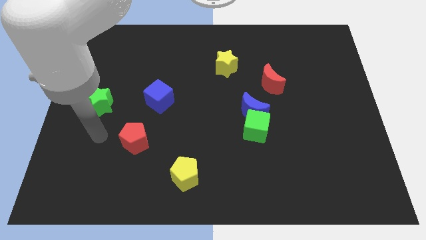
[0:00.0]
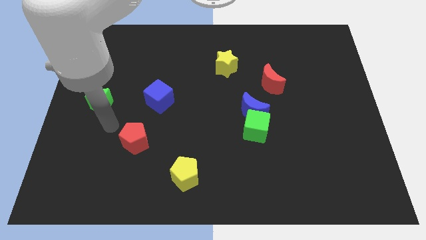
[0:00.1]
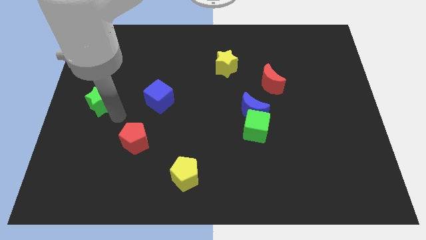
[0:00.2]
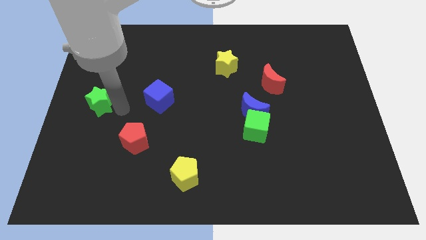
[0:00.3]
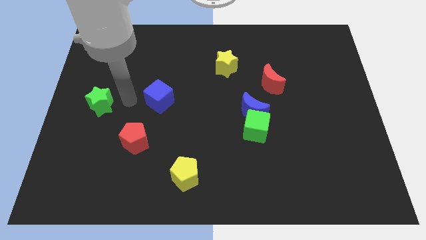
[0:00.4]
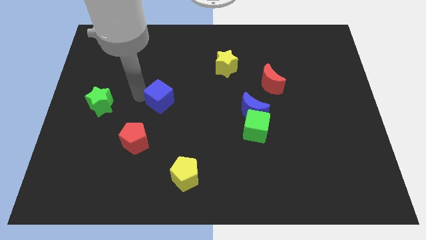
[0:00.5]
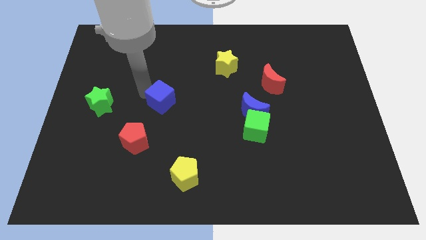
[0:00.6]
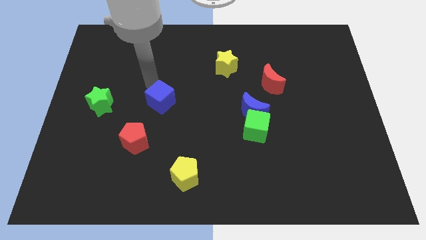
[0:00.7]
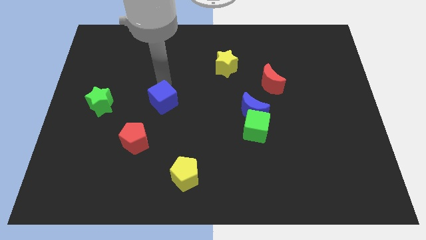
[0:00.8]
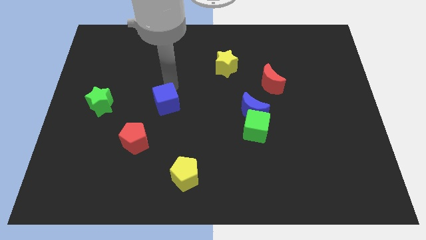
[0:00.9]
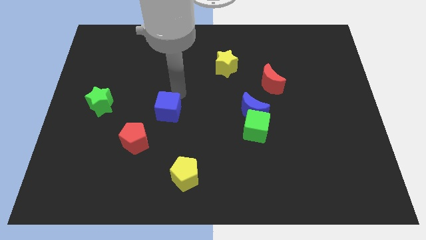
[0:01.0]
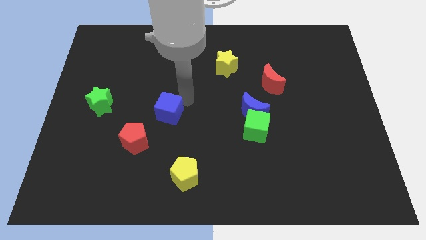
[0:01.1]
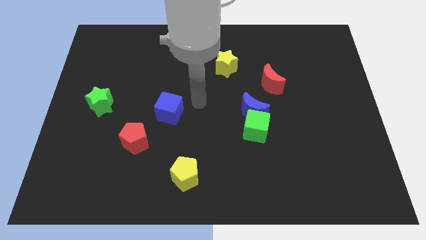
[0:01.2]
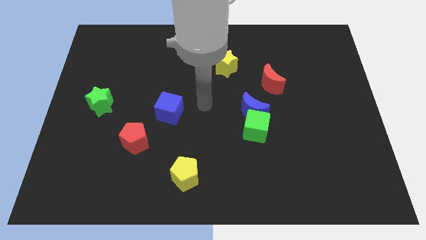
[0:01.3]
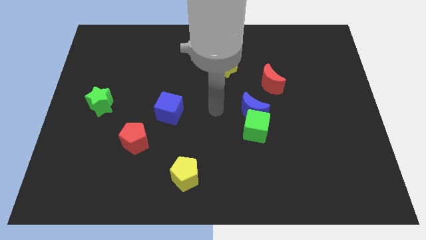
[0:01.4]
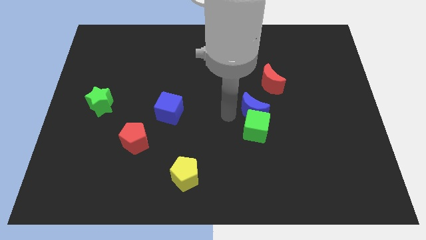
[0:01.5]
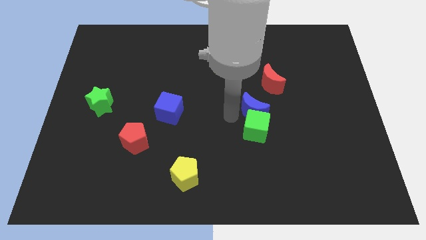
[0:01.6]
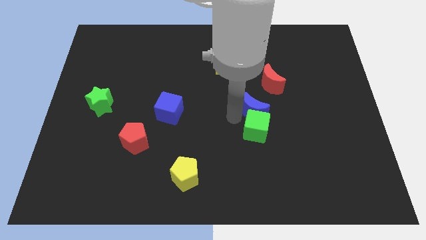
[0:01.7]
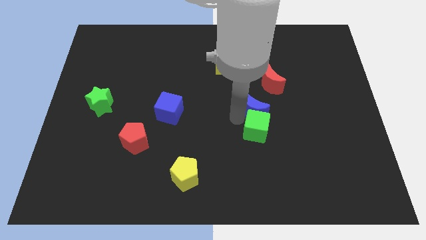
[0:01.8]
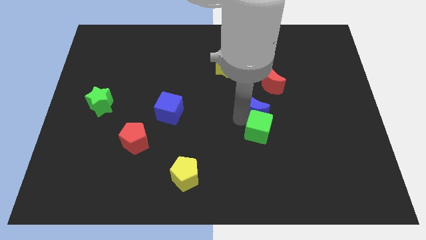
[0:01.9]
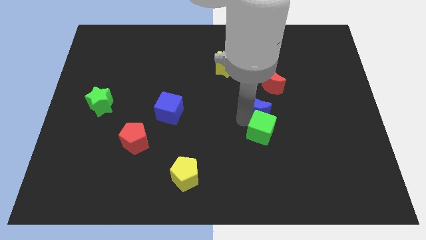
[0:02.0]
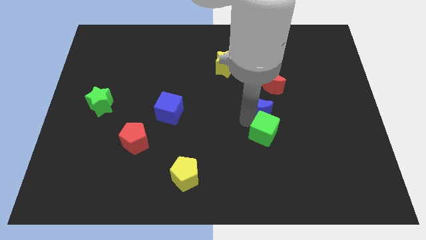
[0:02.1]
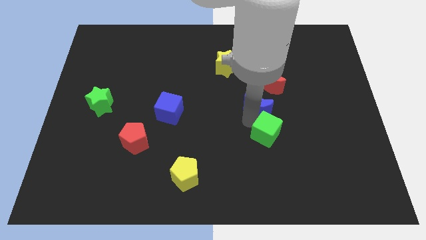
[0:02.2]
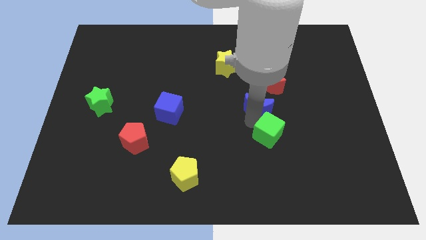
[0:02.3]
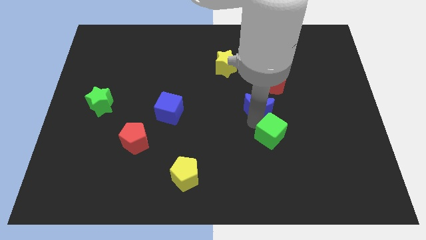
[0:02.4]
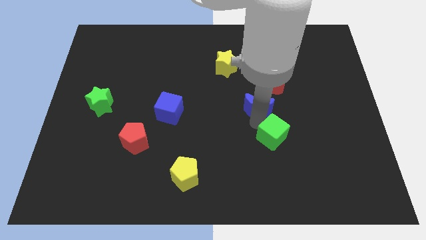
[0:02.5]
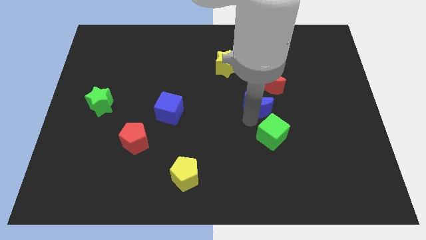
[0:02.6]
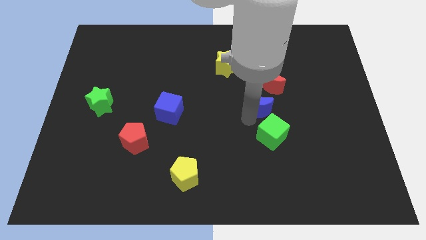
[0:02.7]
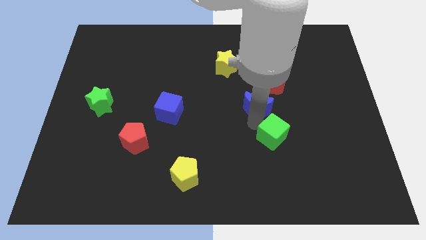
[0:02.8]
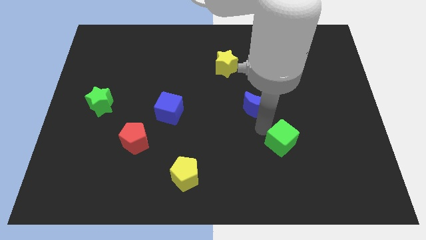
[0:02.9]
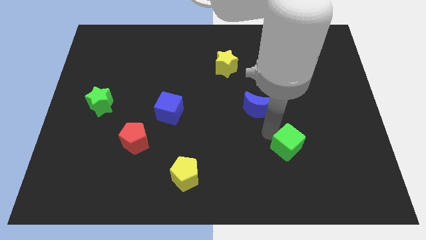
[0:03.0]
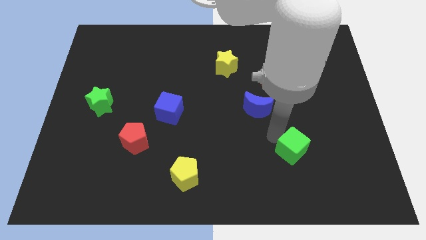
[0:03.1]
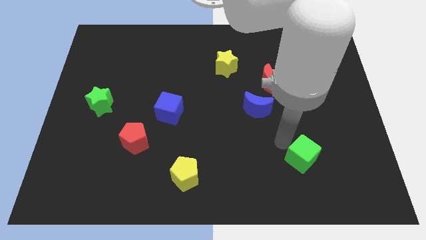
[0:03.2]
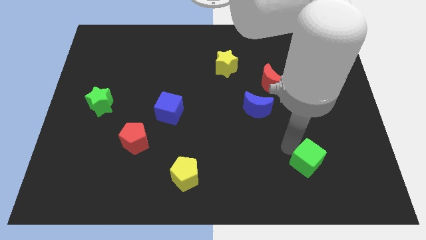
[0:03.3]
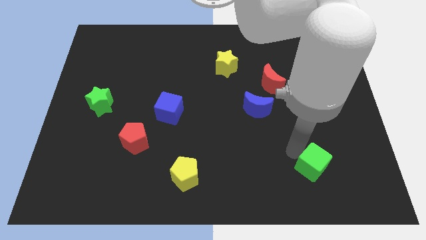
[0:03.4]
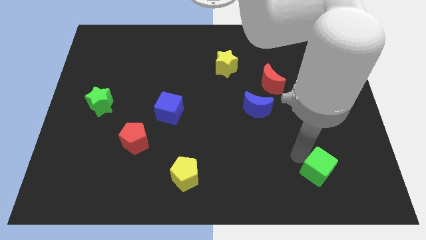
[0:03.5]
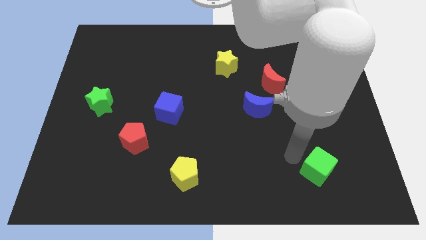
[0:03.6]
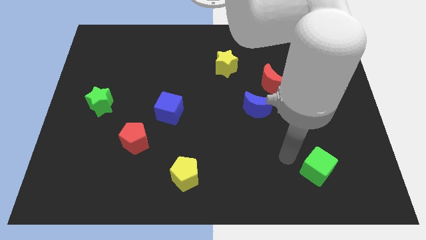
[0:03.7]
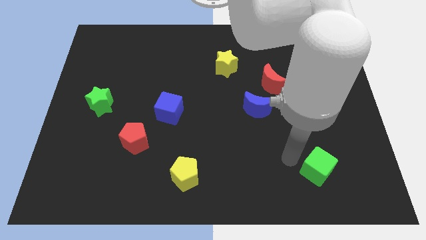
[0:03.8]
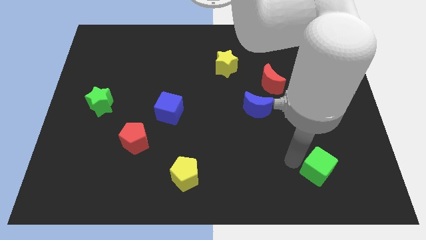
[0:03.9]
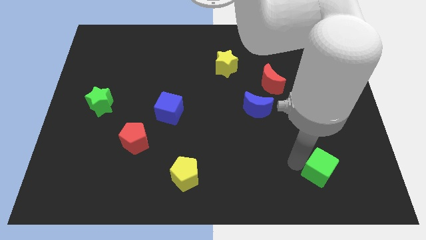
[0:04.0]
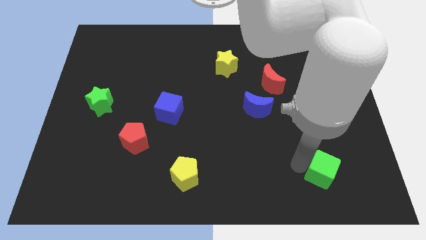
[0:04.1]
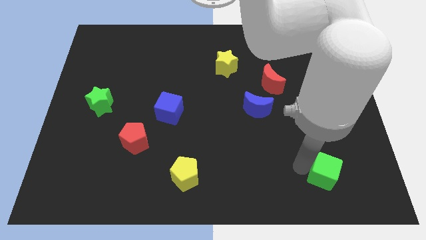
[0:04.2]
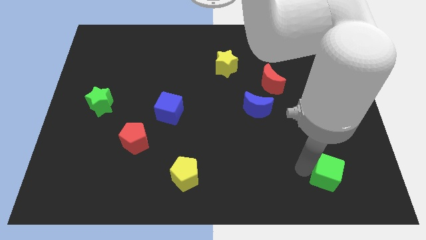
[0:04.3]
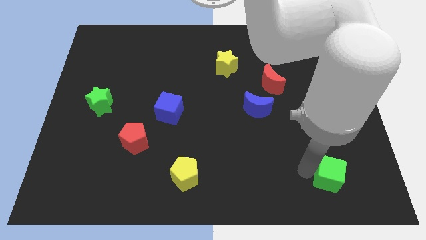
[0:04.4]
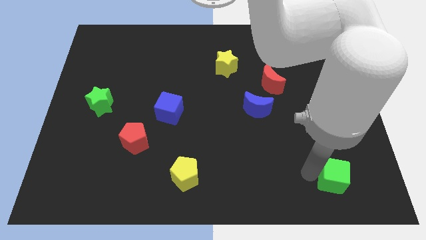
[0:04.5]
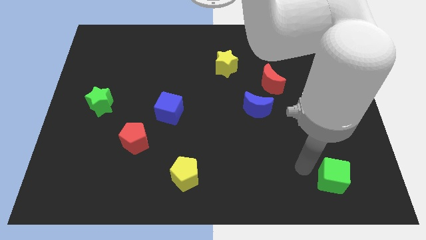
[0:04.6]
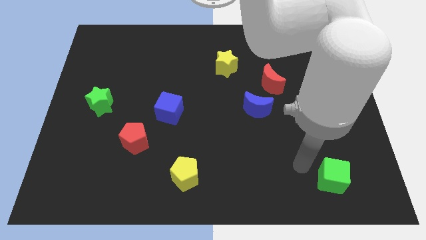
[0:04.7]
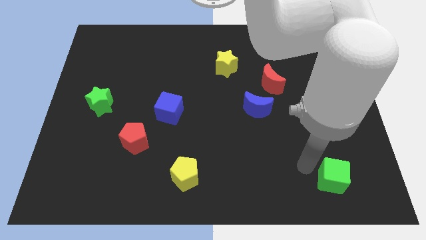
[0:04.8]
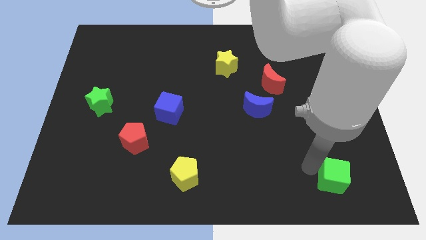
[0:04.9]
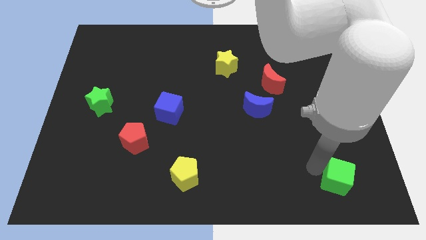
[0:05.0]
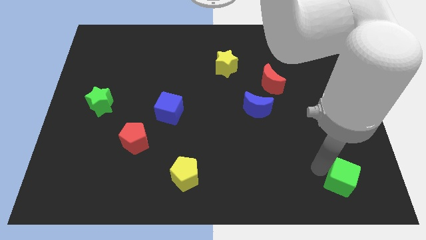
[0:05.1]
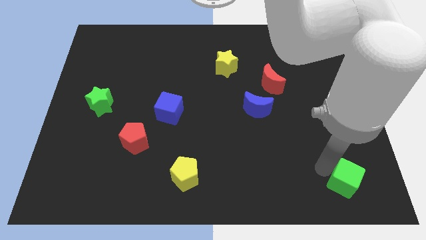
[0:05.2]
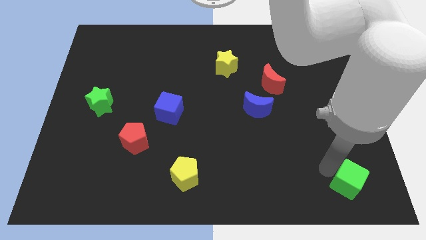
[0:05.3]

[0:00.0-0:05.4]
move the green cube to the bottom right of the board

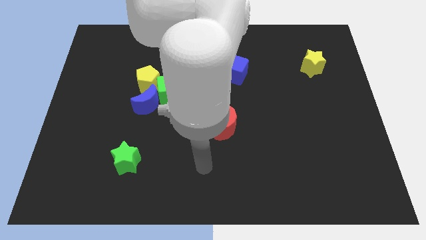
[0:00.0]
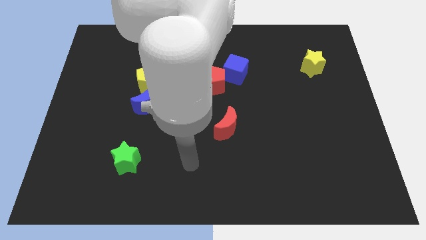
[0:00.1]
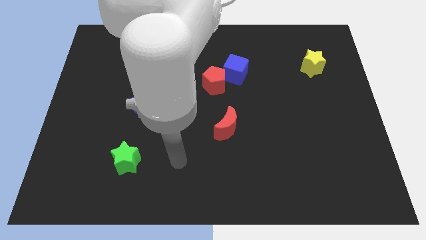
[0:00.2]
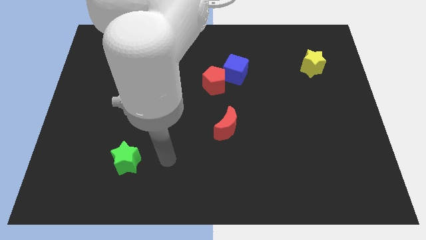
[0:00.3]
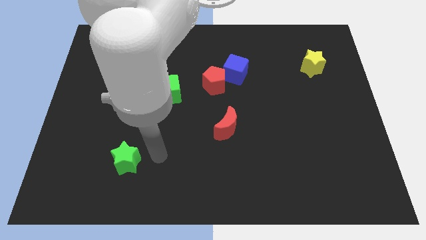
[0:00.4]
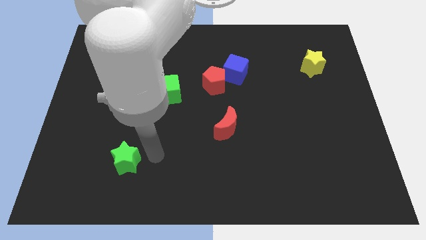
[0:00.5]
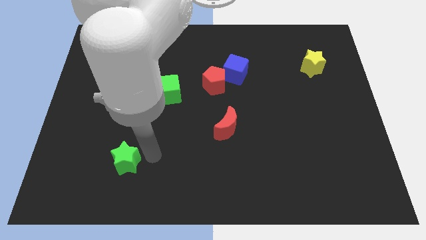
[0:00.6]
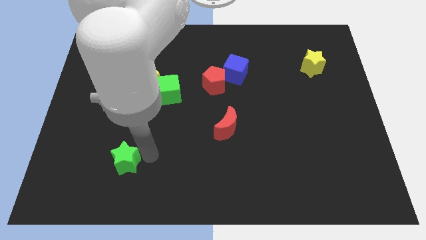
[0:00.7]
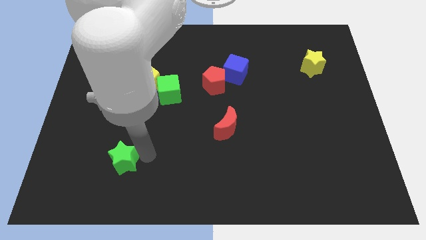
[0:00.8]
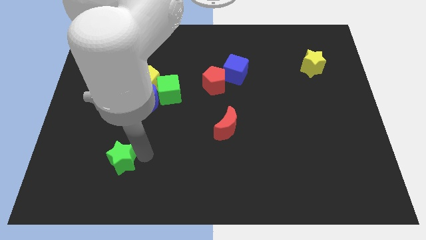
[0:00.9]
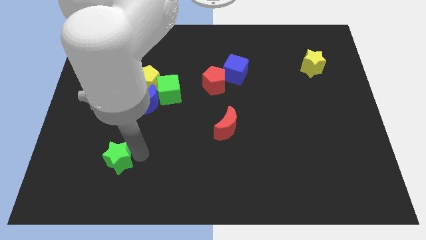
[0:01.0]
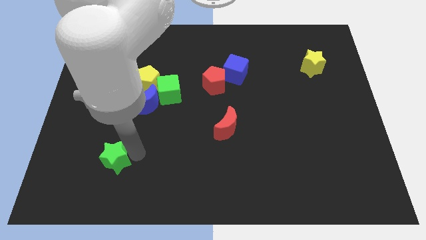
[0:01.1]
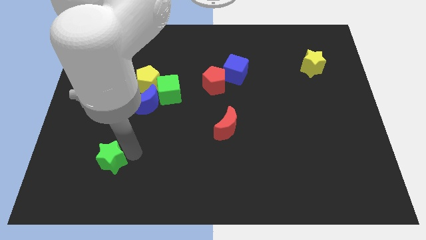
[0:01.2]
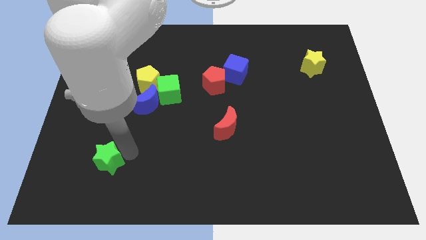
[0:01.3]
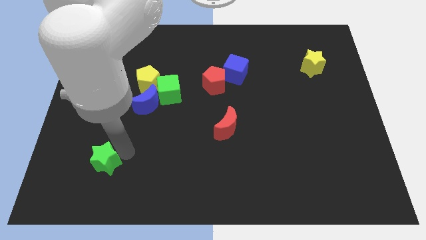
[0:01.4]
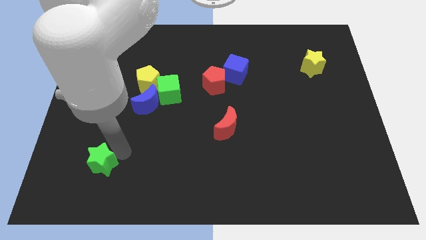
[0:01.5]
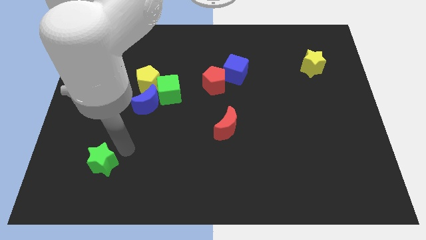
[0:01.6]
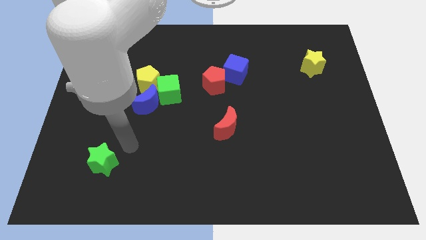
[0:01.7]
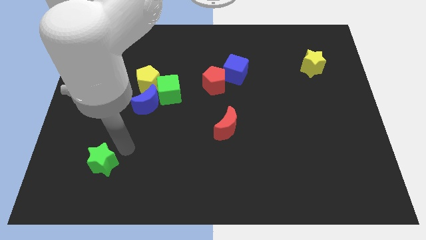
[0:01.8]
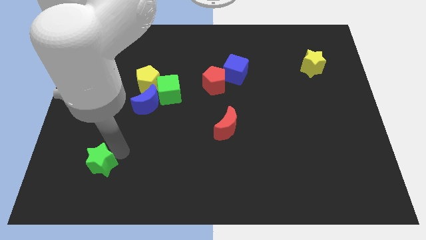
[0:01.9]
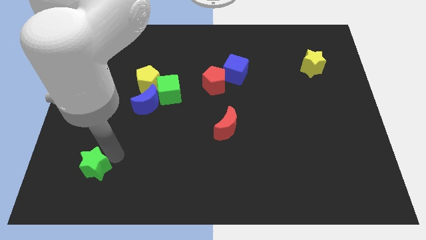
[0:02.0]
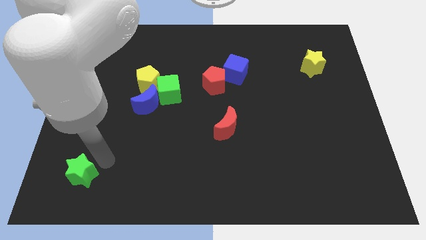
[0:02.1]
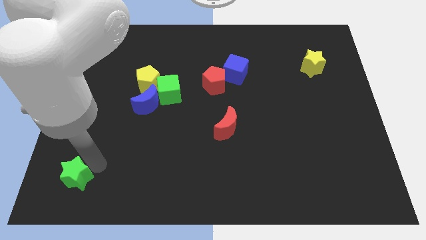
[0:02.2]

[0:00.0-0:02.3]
push the green star to the lower left corner
